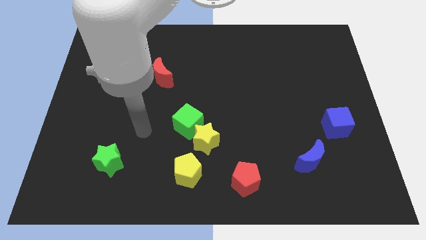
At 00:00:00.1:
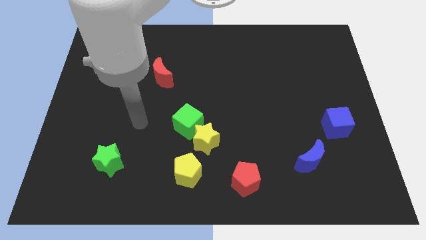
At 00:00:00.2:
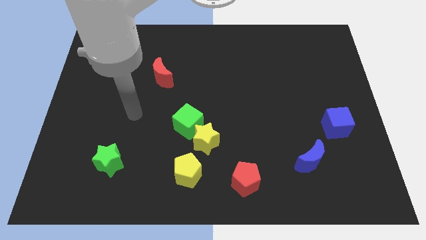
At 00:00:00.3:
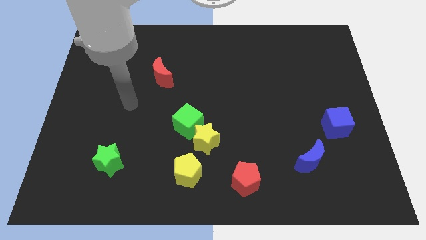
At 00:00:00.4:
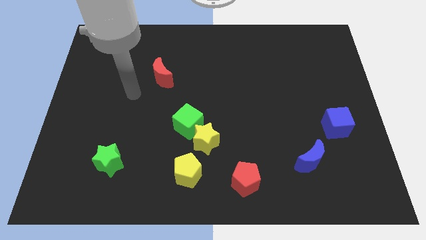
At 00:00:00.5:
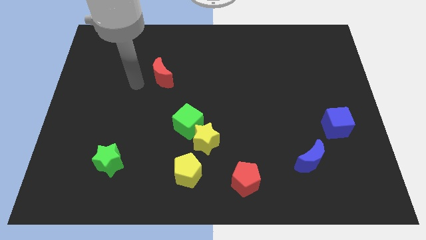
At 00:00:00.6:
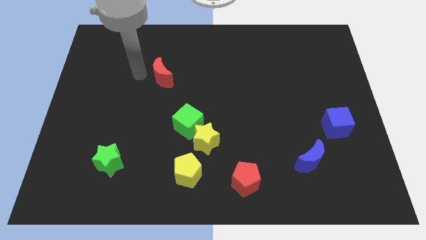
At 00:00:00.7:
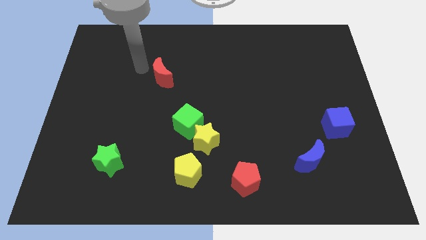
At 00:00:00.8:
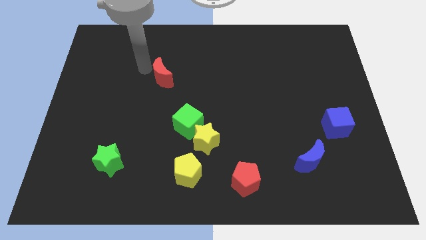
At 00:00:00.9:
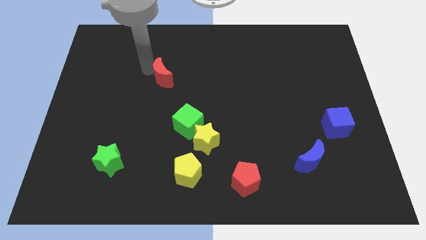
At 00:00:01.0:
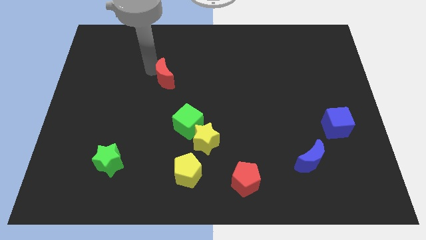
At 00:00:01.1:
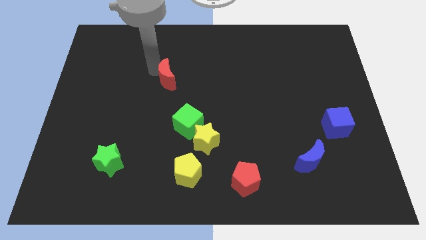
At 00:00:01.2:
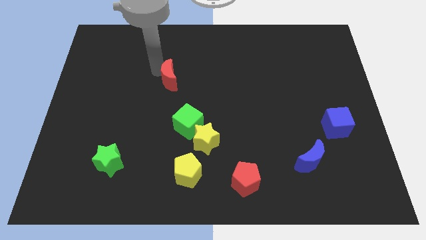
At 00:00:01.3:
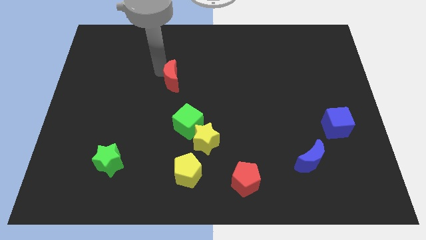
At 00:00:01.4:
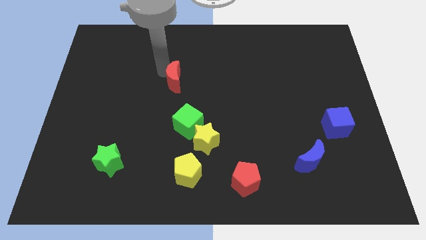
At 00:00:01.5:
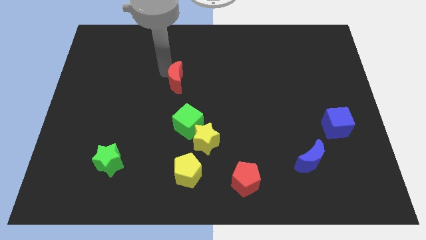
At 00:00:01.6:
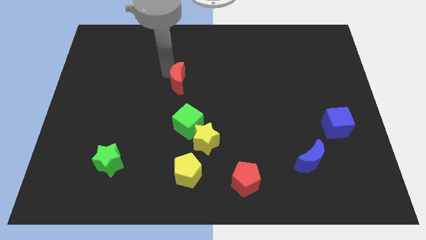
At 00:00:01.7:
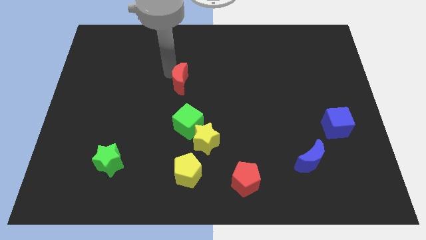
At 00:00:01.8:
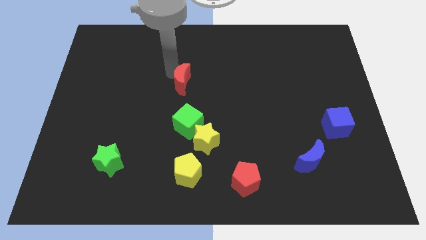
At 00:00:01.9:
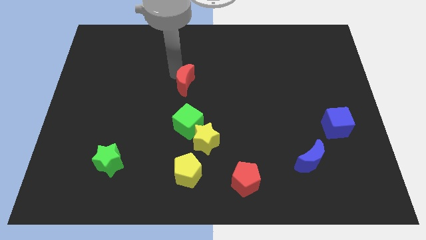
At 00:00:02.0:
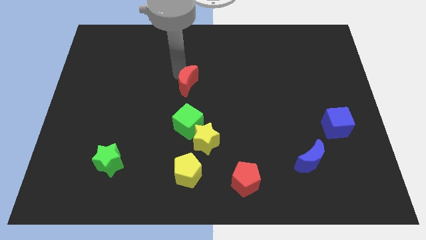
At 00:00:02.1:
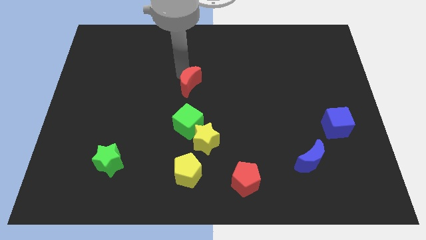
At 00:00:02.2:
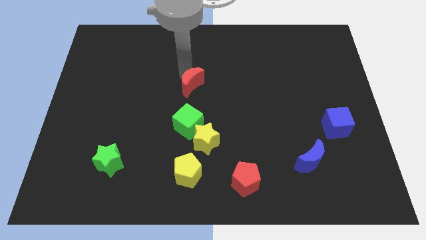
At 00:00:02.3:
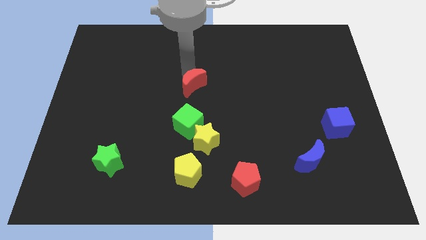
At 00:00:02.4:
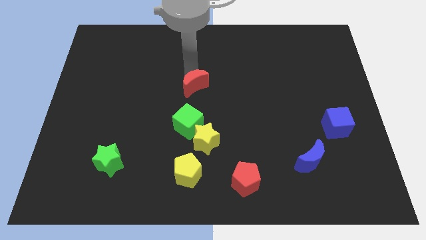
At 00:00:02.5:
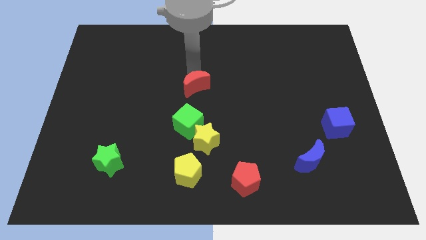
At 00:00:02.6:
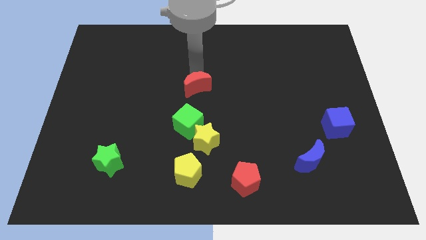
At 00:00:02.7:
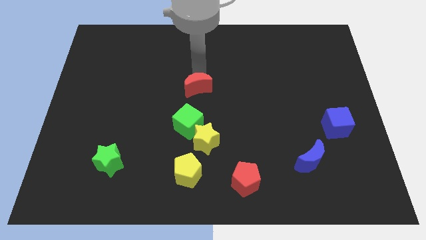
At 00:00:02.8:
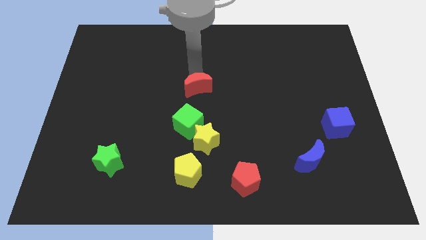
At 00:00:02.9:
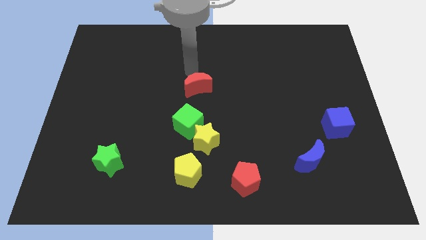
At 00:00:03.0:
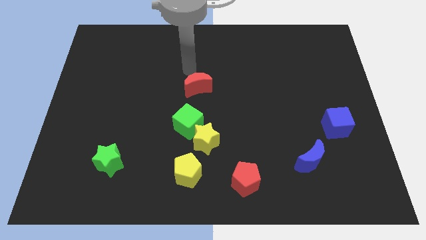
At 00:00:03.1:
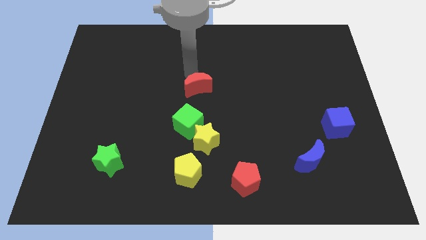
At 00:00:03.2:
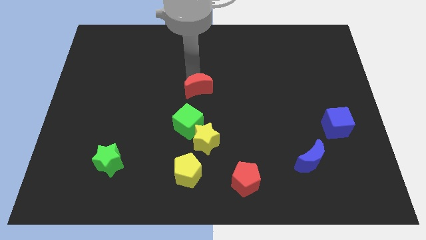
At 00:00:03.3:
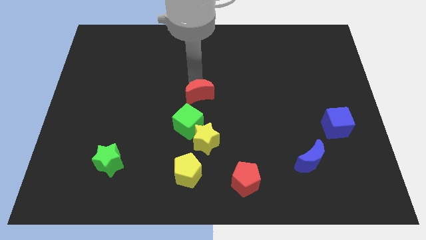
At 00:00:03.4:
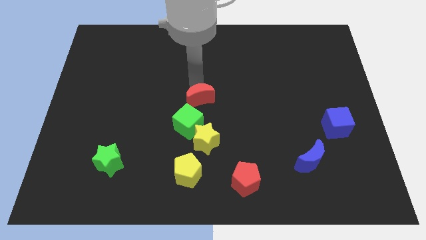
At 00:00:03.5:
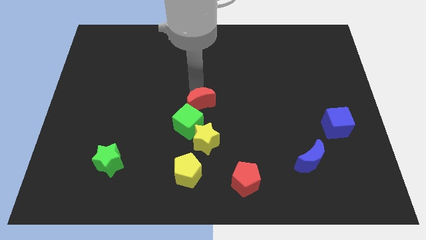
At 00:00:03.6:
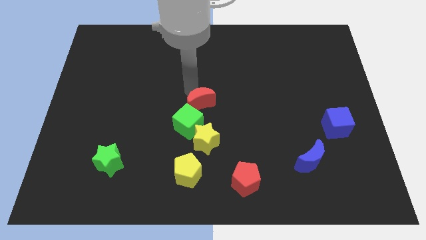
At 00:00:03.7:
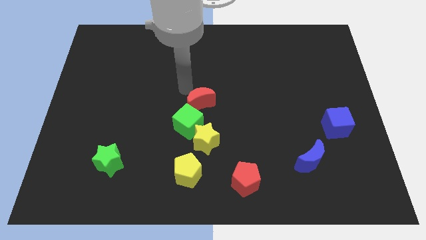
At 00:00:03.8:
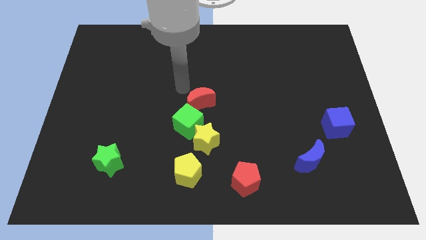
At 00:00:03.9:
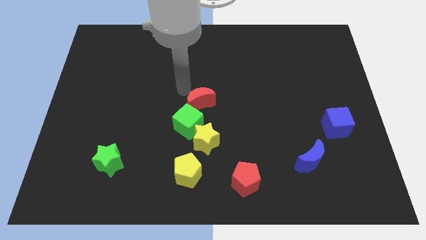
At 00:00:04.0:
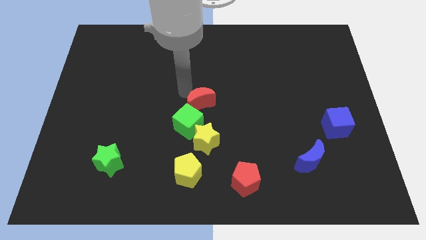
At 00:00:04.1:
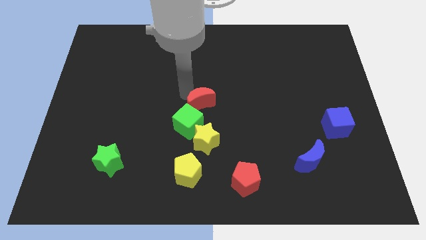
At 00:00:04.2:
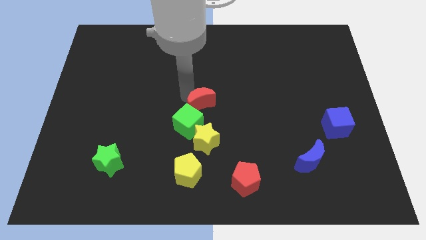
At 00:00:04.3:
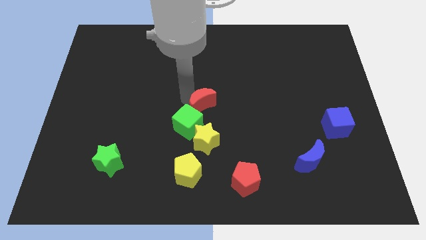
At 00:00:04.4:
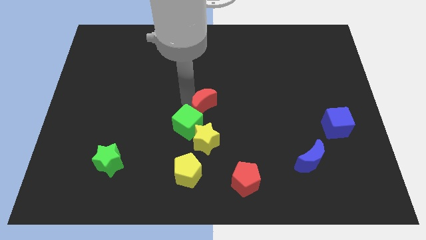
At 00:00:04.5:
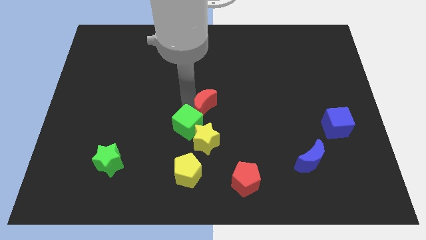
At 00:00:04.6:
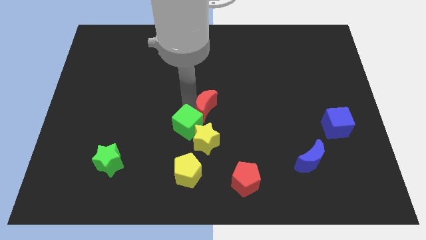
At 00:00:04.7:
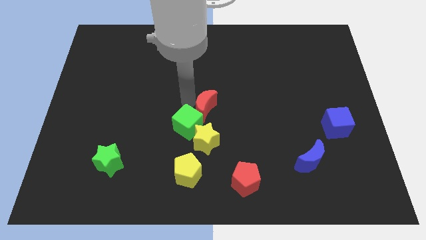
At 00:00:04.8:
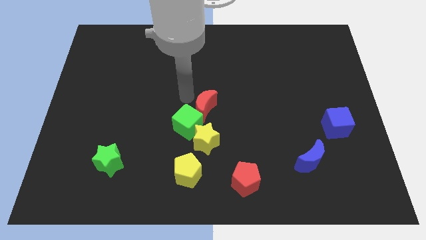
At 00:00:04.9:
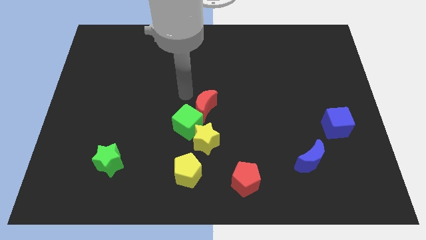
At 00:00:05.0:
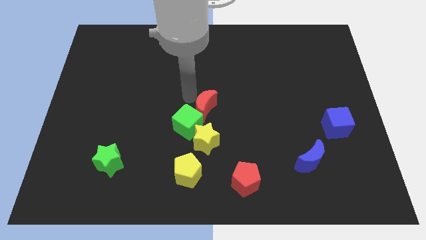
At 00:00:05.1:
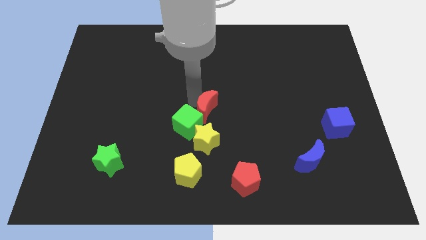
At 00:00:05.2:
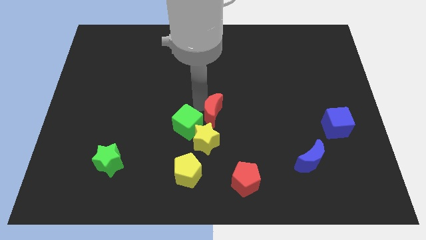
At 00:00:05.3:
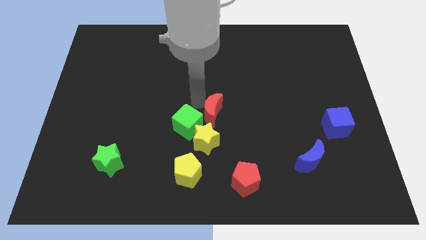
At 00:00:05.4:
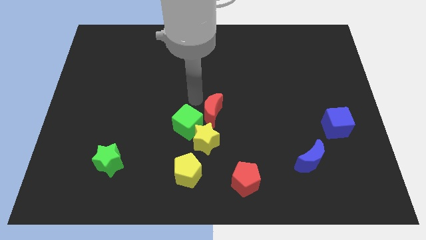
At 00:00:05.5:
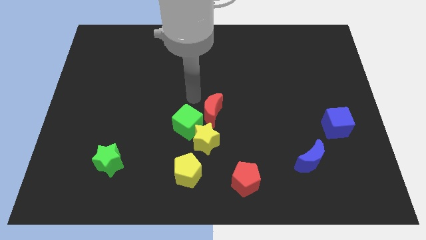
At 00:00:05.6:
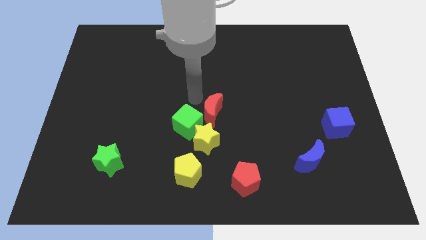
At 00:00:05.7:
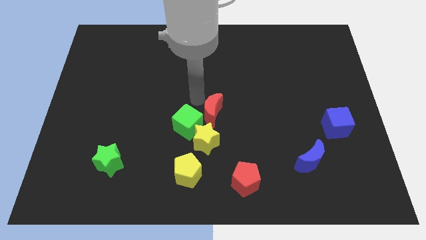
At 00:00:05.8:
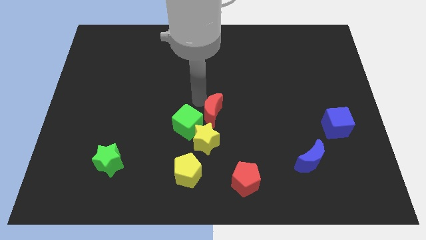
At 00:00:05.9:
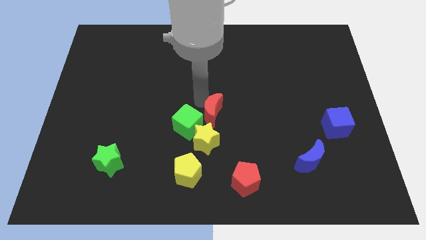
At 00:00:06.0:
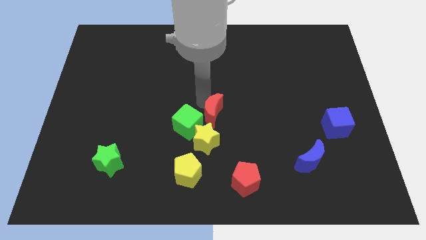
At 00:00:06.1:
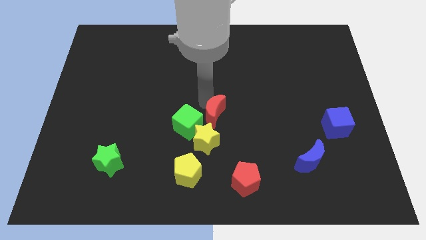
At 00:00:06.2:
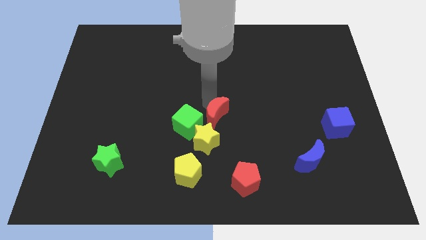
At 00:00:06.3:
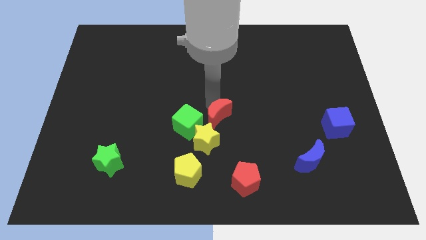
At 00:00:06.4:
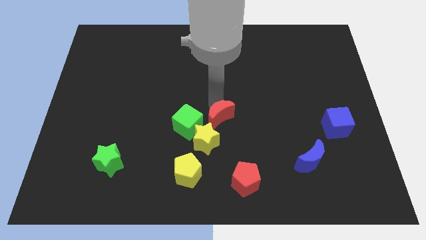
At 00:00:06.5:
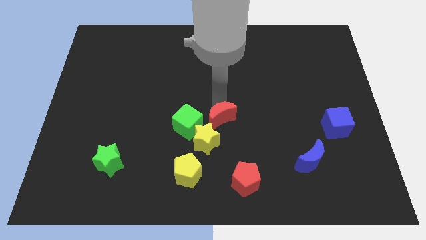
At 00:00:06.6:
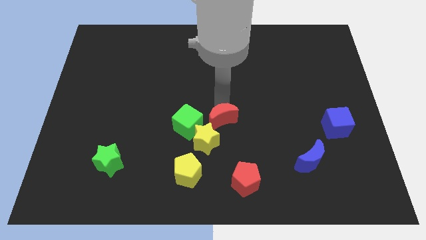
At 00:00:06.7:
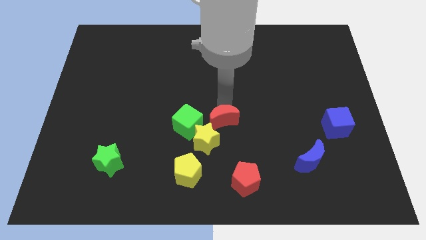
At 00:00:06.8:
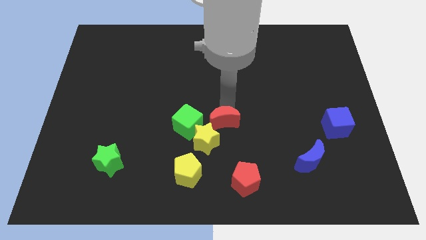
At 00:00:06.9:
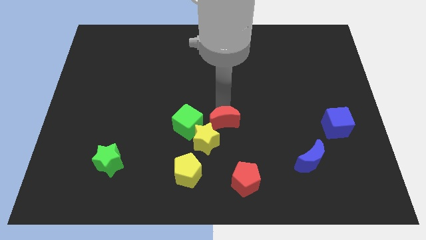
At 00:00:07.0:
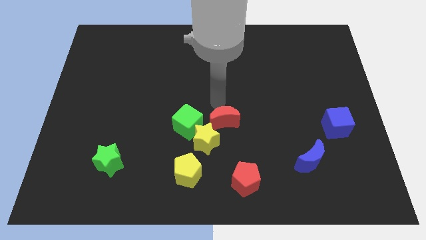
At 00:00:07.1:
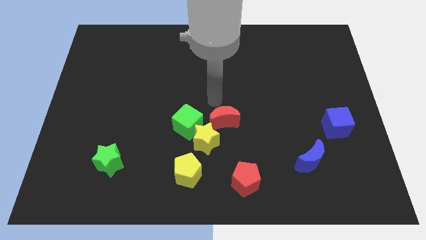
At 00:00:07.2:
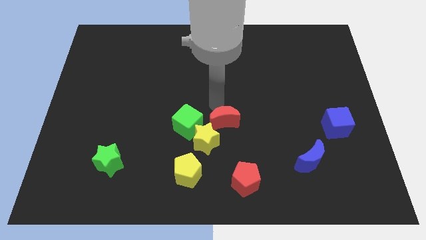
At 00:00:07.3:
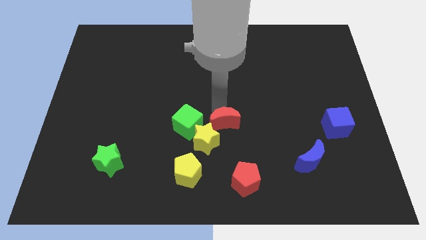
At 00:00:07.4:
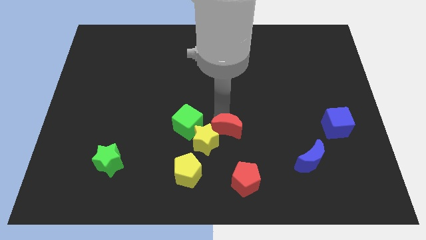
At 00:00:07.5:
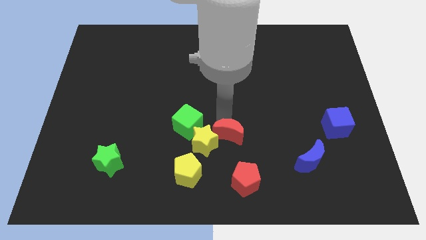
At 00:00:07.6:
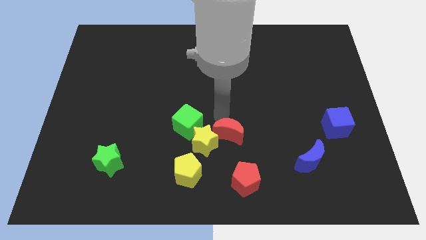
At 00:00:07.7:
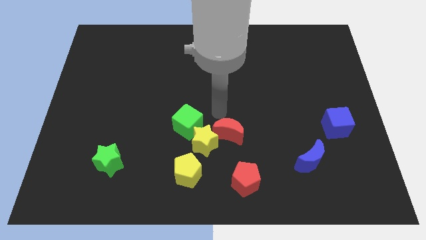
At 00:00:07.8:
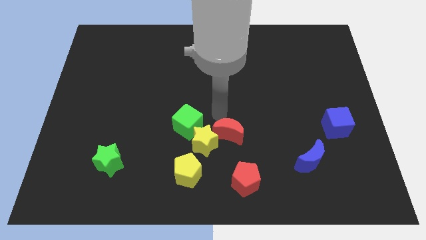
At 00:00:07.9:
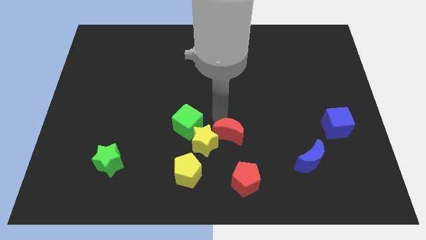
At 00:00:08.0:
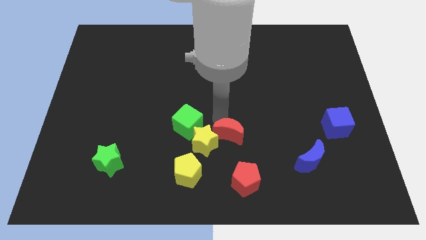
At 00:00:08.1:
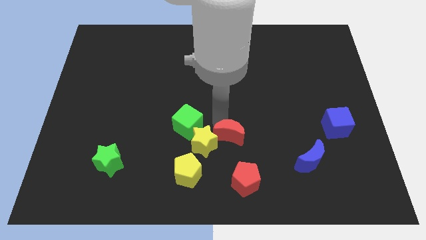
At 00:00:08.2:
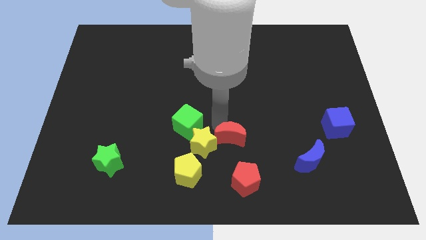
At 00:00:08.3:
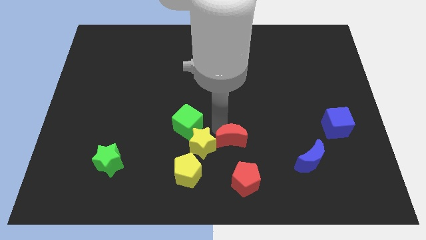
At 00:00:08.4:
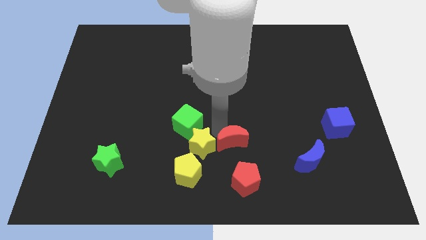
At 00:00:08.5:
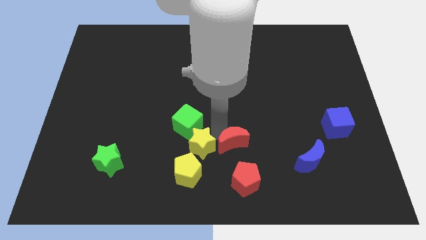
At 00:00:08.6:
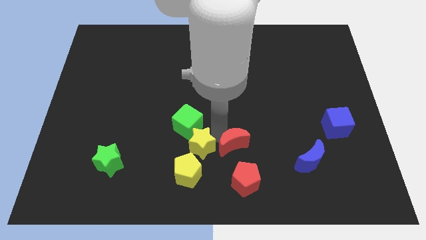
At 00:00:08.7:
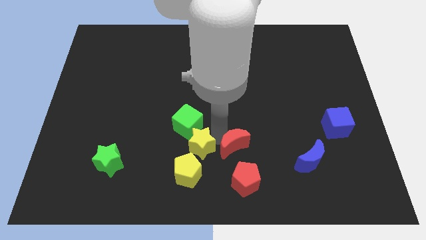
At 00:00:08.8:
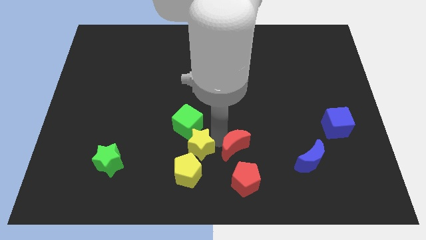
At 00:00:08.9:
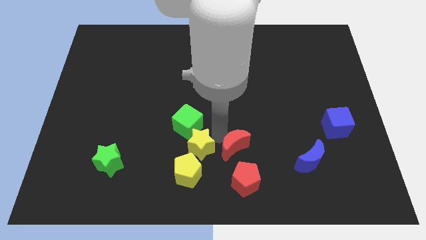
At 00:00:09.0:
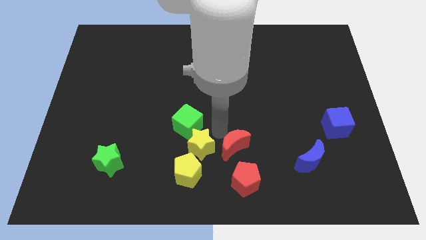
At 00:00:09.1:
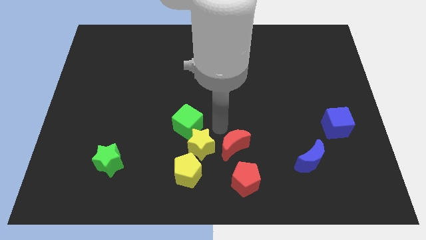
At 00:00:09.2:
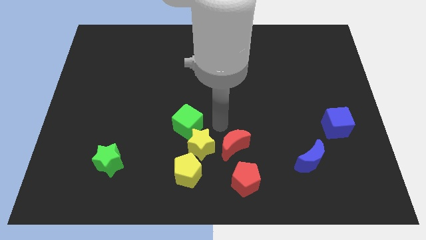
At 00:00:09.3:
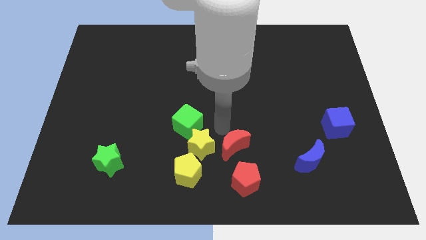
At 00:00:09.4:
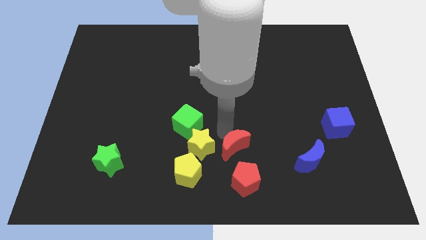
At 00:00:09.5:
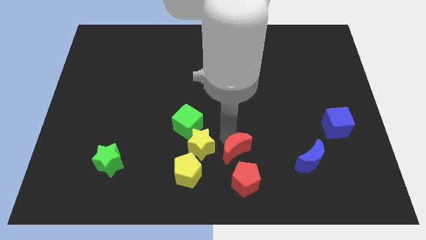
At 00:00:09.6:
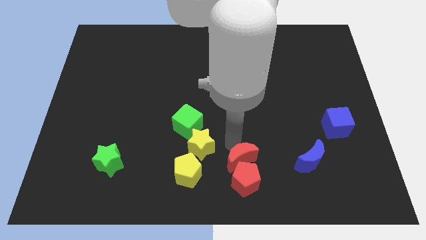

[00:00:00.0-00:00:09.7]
put the red moon towards the red pentagon
